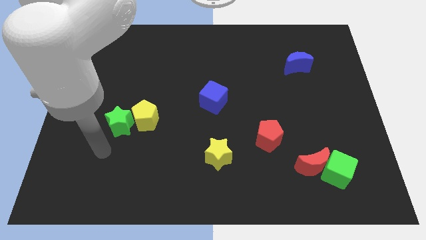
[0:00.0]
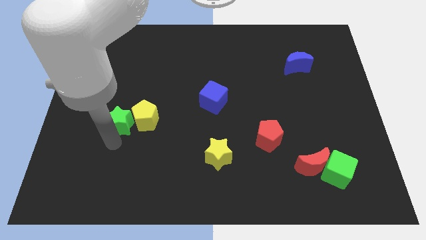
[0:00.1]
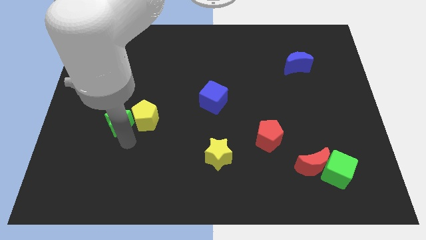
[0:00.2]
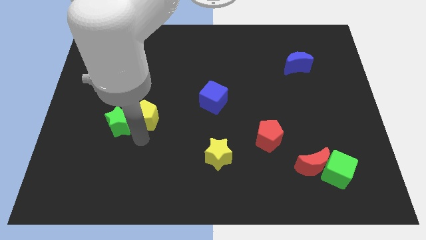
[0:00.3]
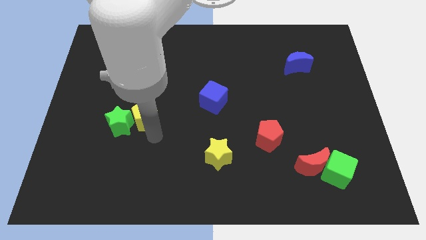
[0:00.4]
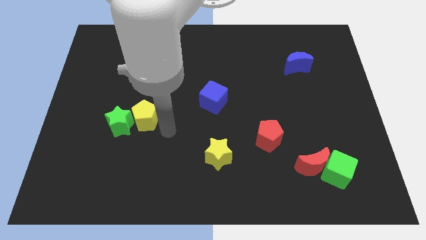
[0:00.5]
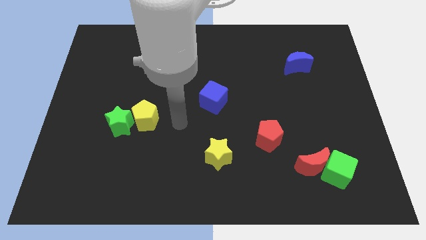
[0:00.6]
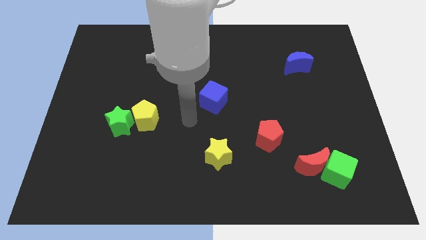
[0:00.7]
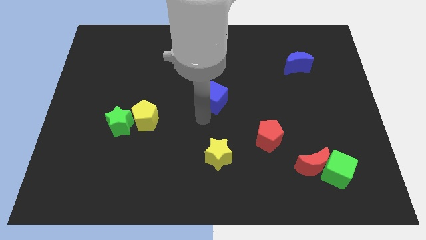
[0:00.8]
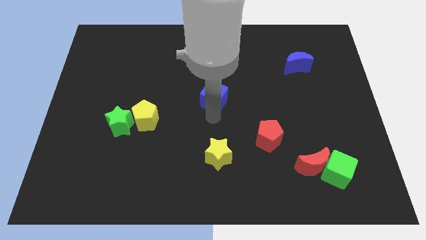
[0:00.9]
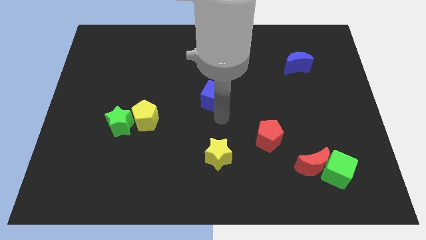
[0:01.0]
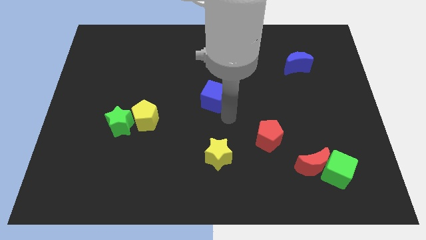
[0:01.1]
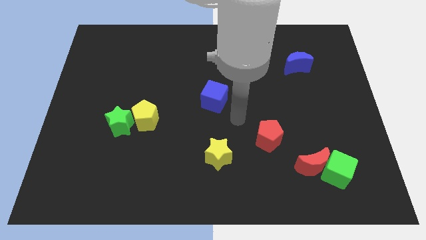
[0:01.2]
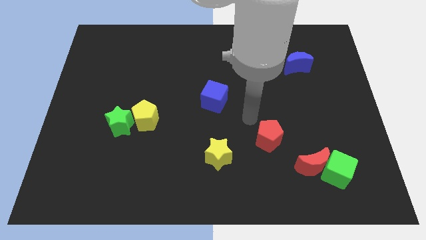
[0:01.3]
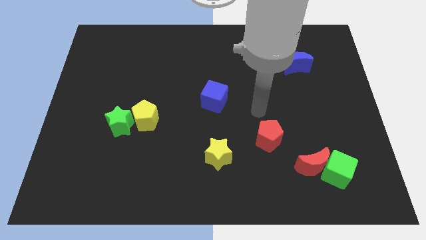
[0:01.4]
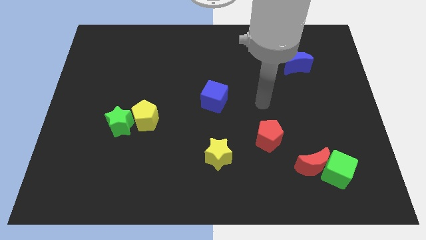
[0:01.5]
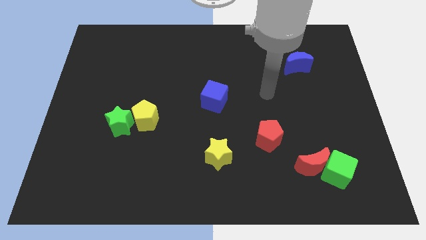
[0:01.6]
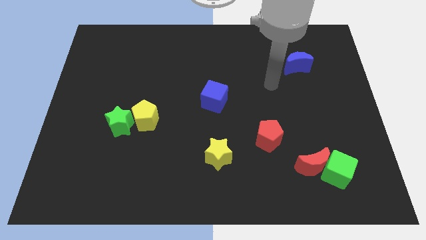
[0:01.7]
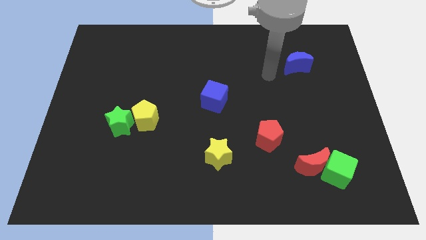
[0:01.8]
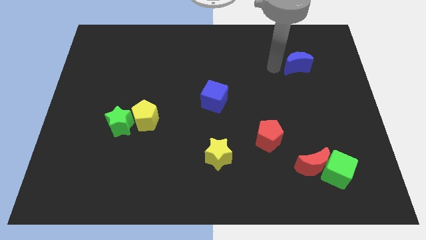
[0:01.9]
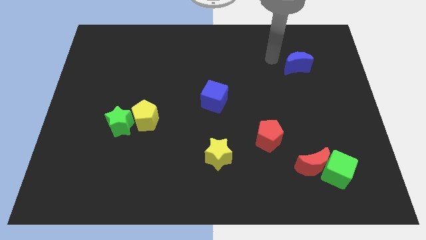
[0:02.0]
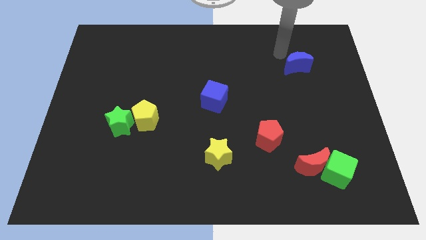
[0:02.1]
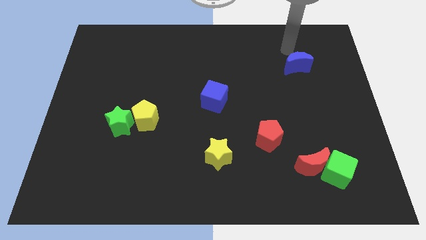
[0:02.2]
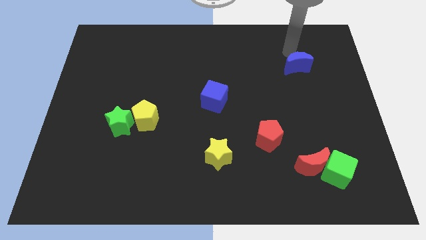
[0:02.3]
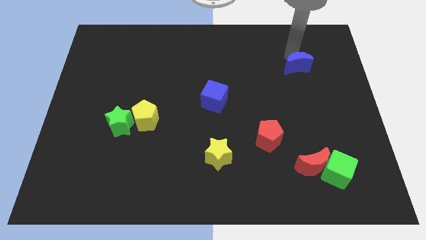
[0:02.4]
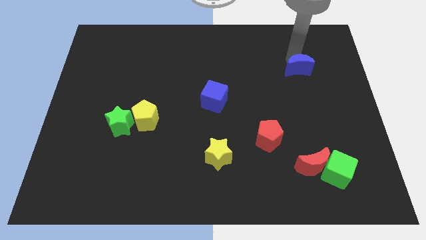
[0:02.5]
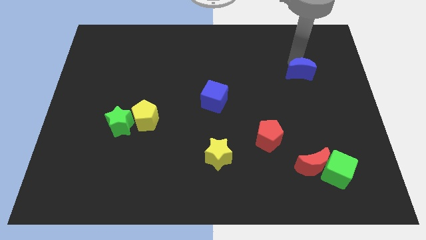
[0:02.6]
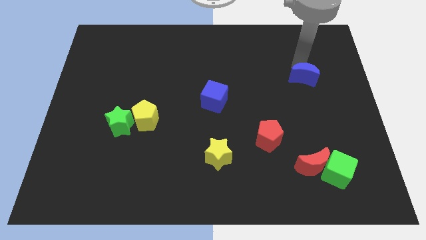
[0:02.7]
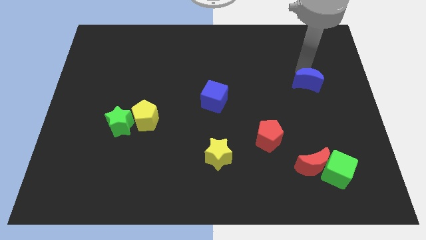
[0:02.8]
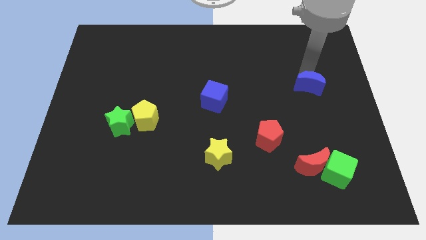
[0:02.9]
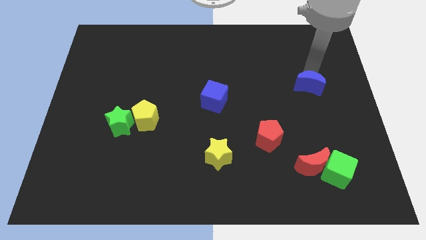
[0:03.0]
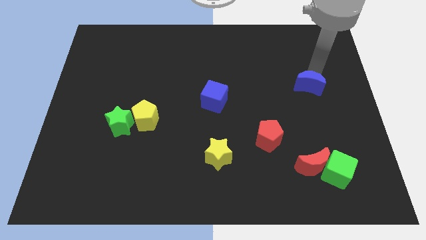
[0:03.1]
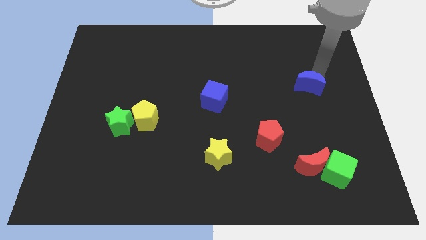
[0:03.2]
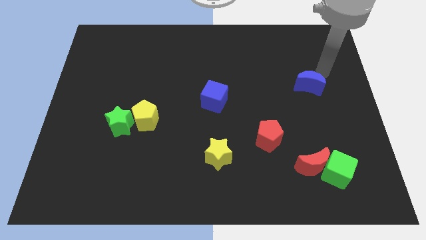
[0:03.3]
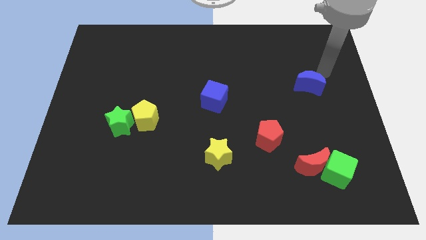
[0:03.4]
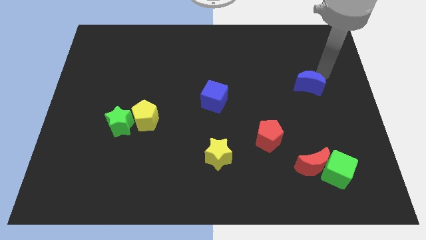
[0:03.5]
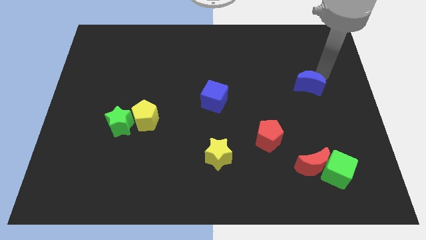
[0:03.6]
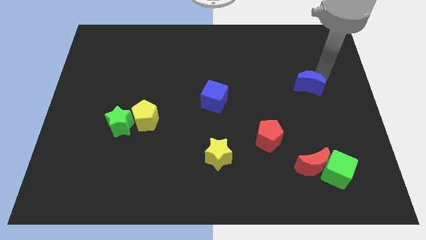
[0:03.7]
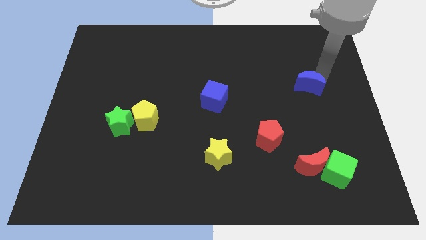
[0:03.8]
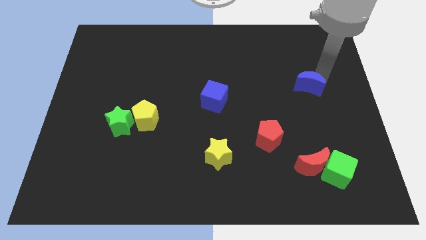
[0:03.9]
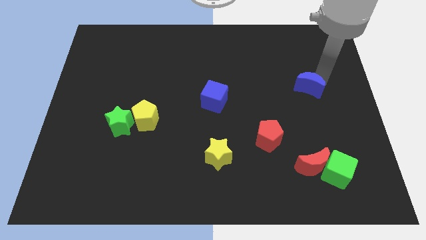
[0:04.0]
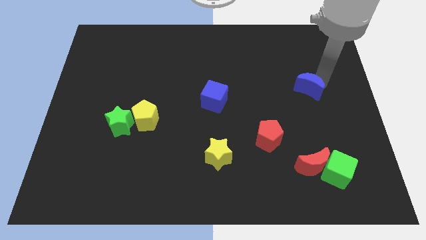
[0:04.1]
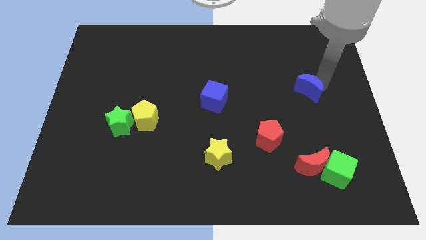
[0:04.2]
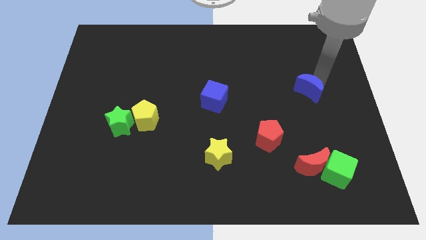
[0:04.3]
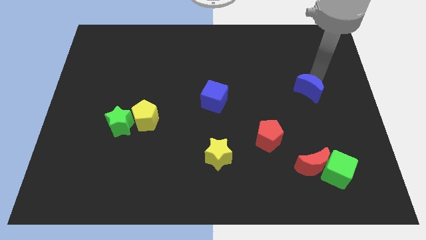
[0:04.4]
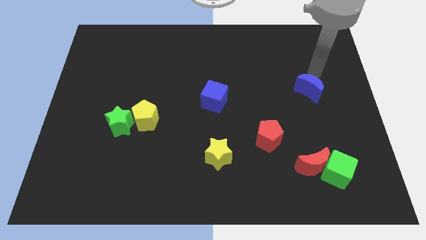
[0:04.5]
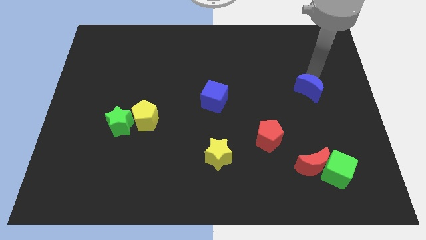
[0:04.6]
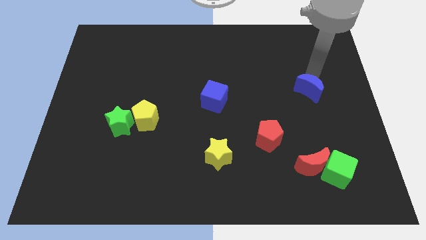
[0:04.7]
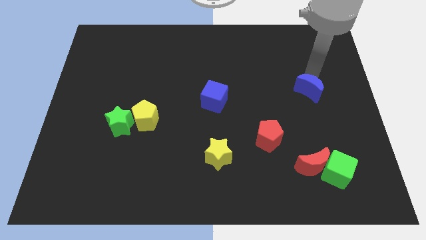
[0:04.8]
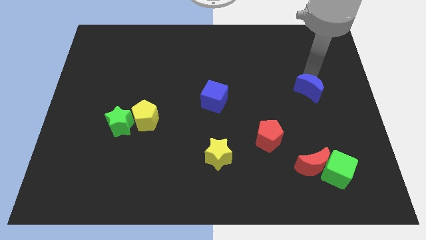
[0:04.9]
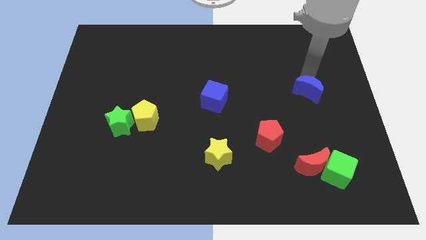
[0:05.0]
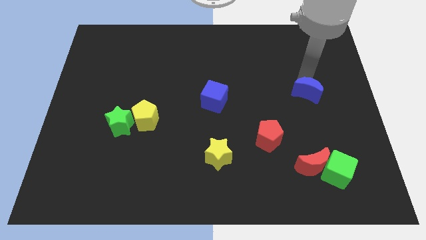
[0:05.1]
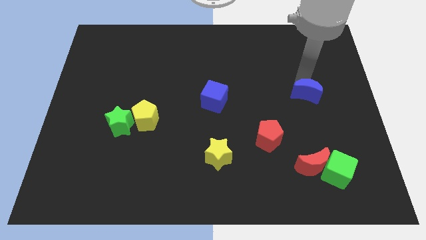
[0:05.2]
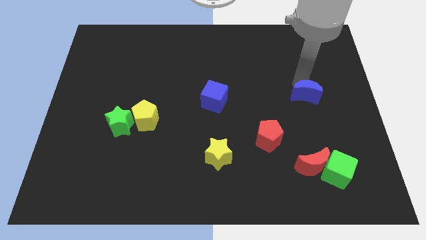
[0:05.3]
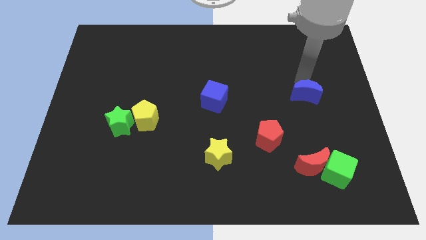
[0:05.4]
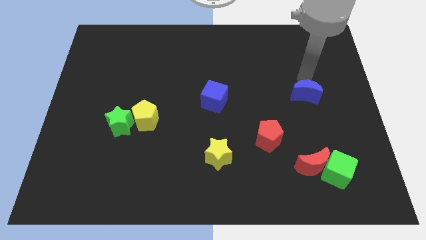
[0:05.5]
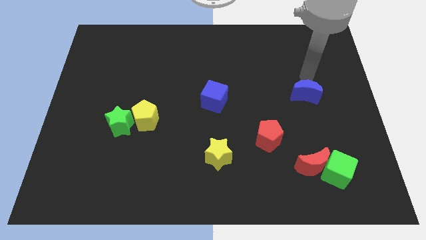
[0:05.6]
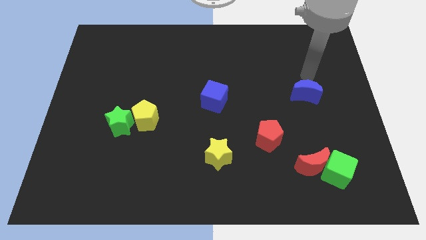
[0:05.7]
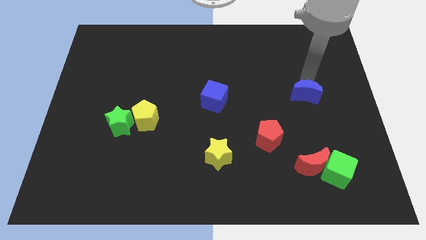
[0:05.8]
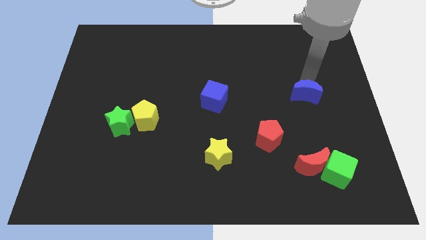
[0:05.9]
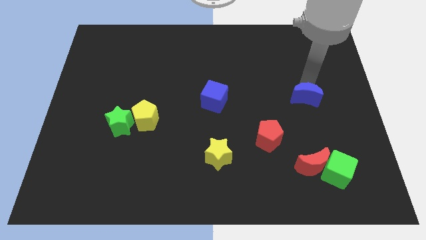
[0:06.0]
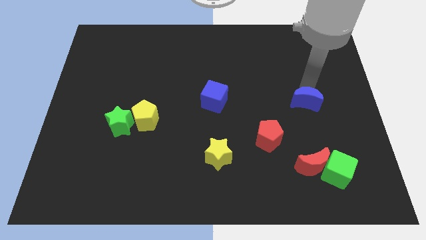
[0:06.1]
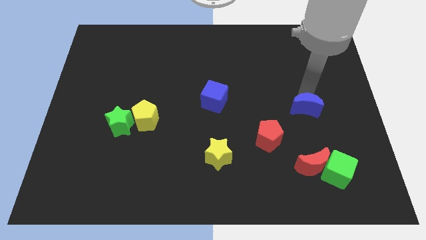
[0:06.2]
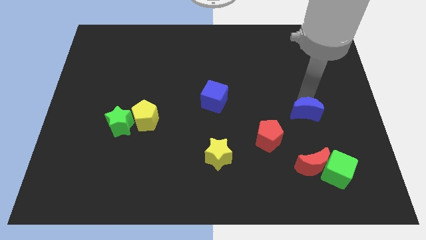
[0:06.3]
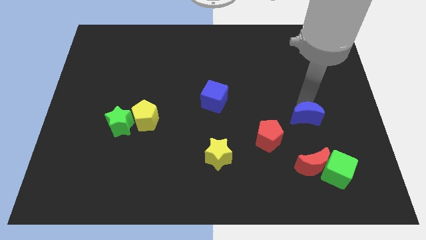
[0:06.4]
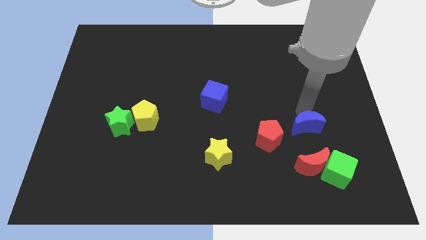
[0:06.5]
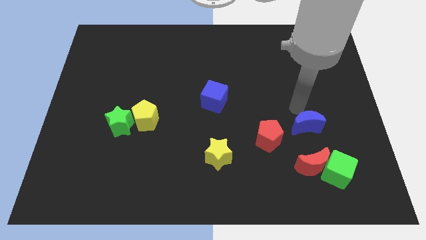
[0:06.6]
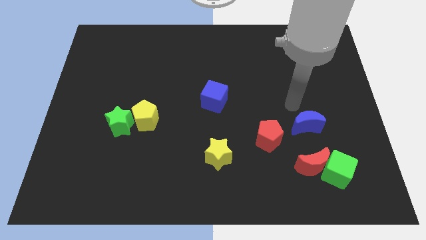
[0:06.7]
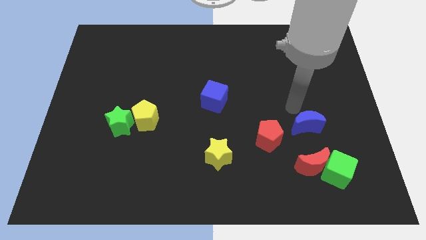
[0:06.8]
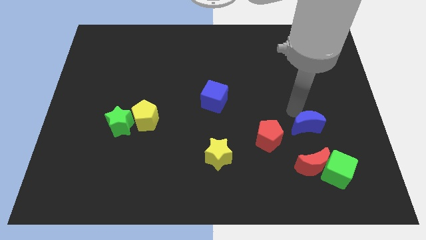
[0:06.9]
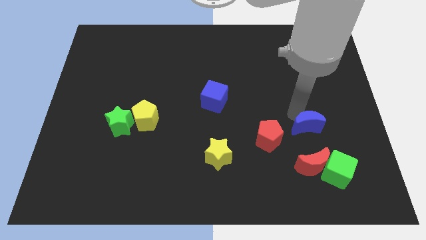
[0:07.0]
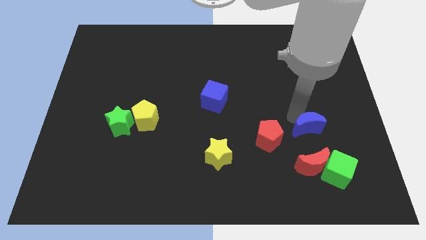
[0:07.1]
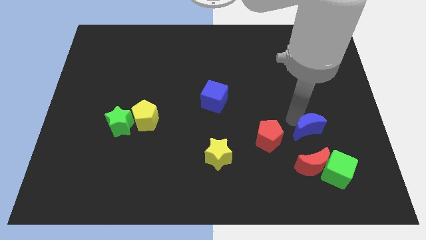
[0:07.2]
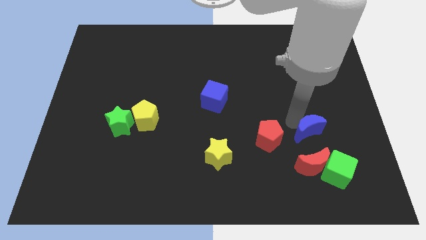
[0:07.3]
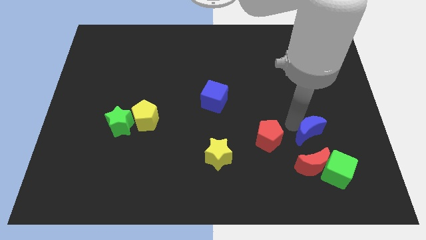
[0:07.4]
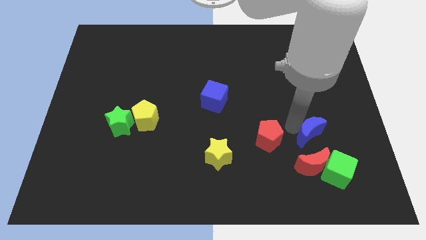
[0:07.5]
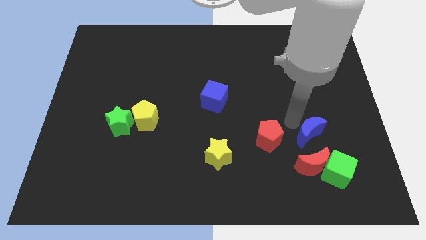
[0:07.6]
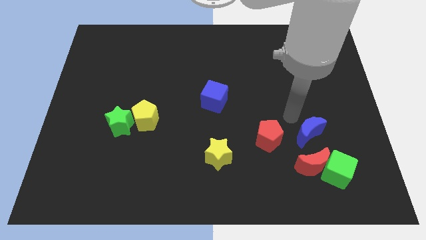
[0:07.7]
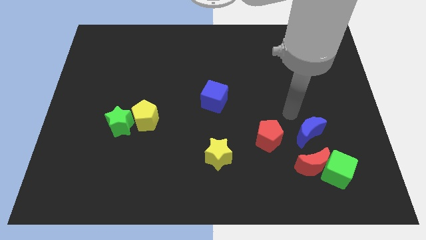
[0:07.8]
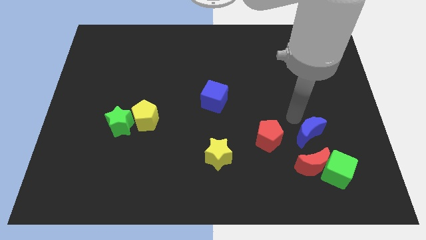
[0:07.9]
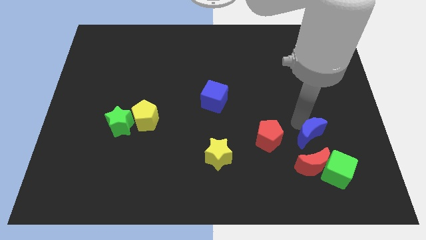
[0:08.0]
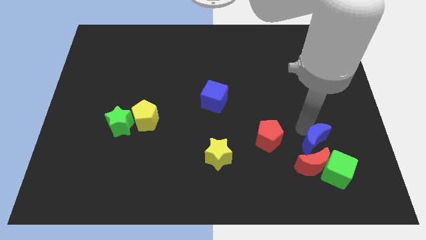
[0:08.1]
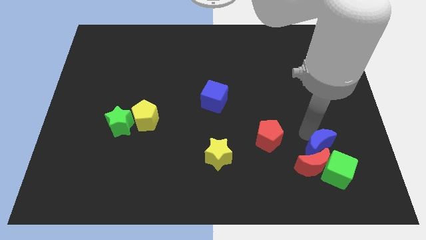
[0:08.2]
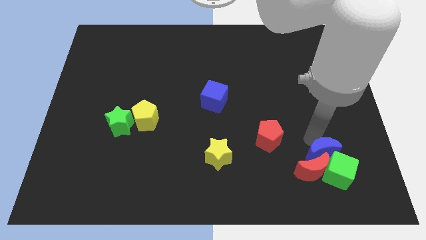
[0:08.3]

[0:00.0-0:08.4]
put the blue moon close to the green cube
